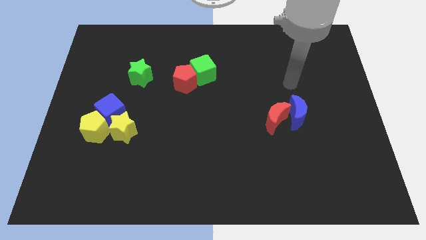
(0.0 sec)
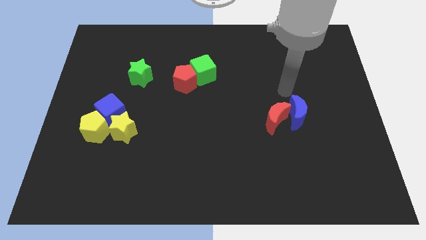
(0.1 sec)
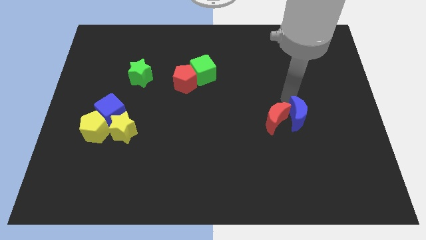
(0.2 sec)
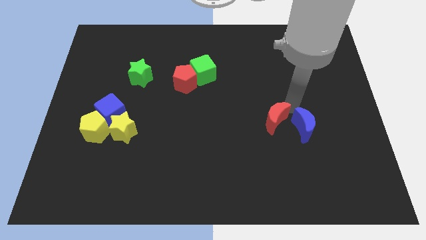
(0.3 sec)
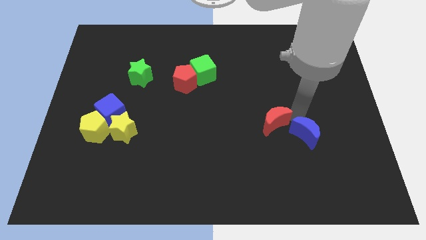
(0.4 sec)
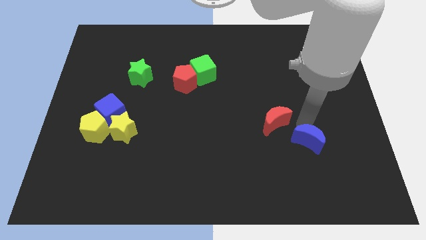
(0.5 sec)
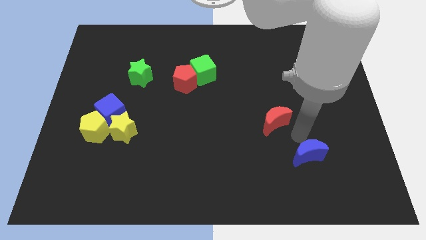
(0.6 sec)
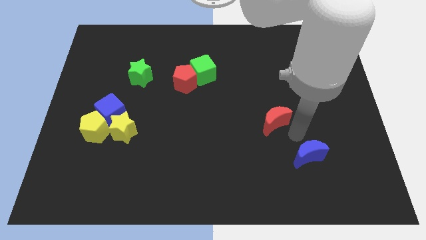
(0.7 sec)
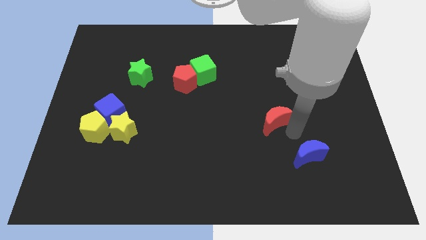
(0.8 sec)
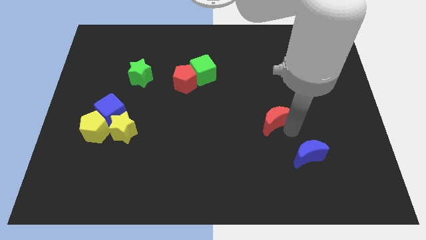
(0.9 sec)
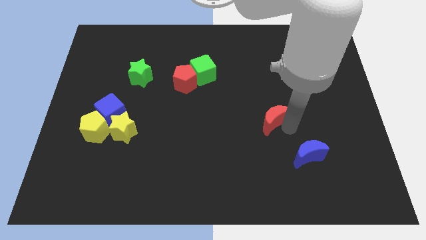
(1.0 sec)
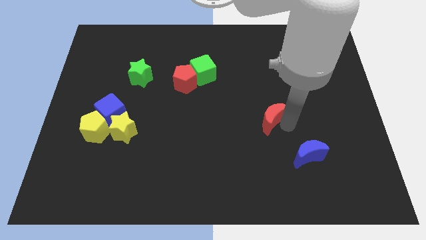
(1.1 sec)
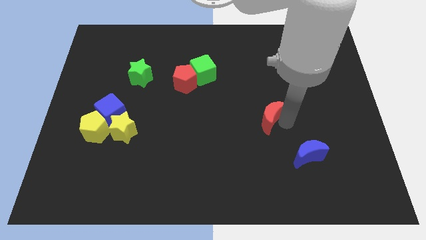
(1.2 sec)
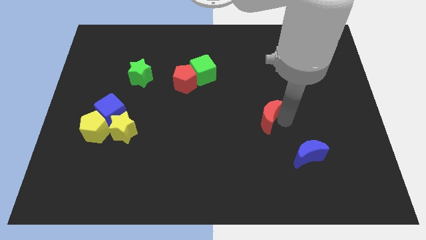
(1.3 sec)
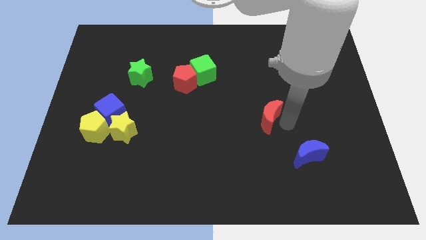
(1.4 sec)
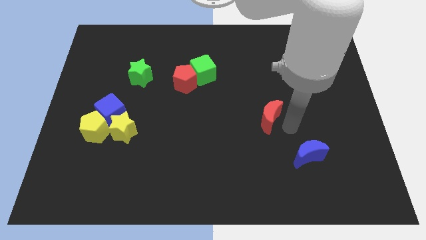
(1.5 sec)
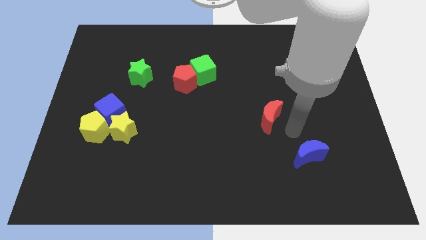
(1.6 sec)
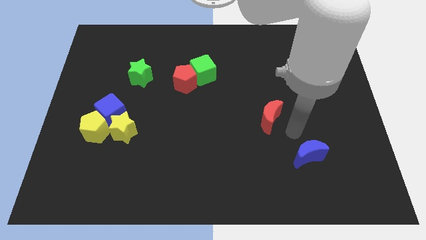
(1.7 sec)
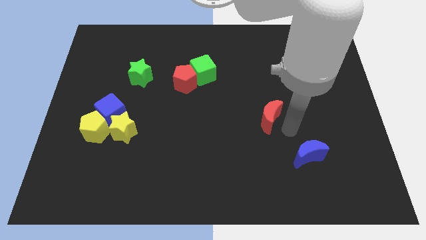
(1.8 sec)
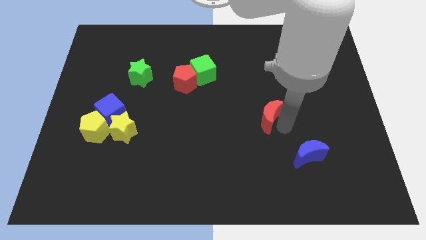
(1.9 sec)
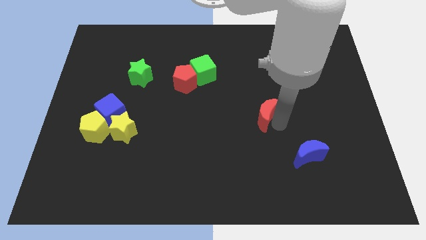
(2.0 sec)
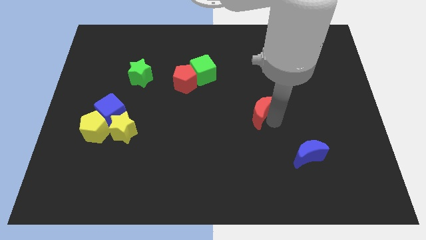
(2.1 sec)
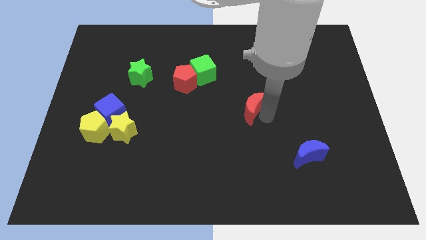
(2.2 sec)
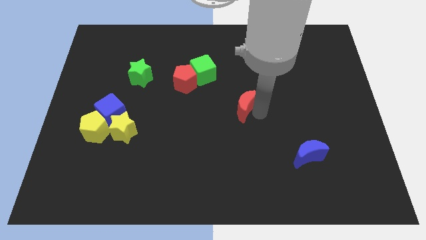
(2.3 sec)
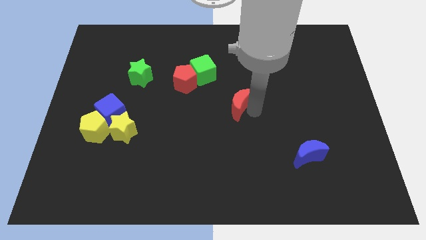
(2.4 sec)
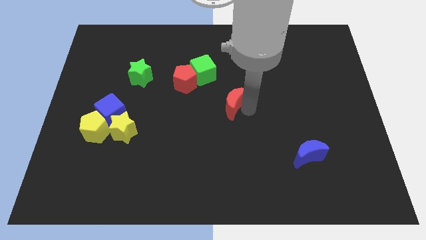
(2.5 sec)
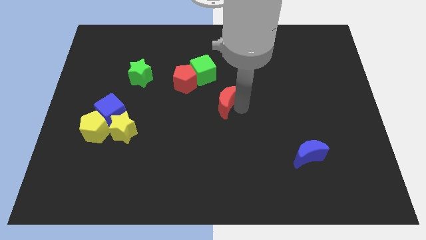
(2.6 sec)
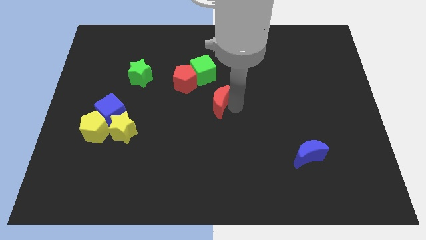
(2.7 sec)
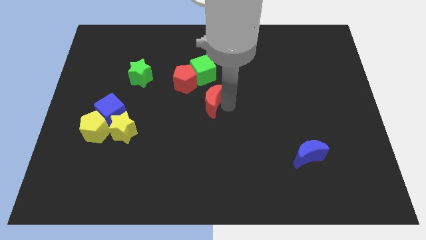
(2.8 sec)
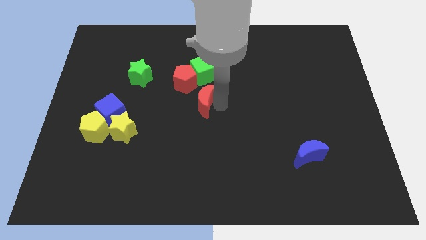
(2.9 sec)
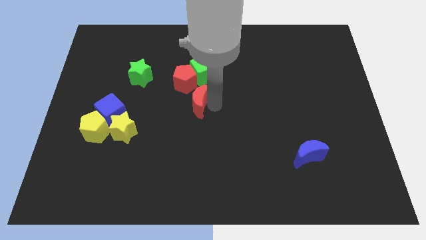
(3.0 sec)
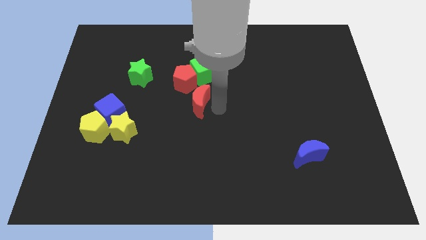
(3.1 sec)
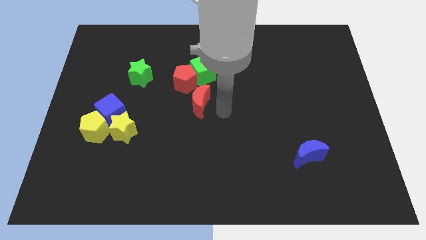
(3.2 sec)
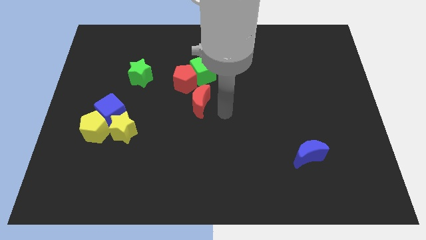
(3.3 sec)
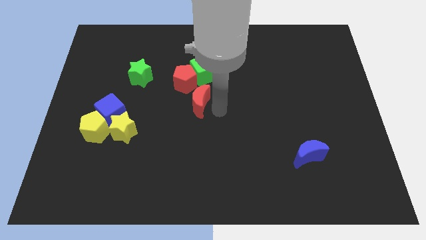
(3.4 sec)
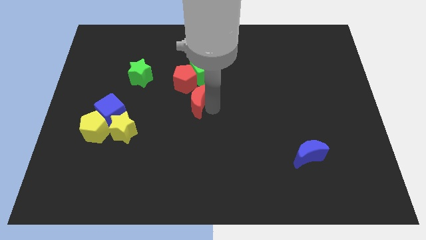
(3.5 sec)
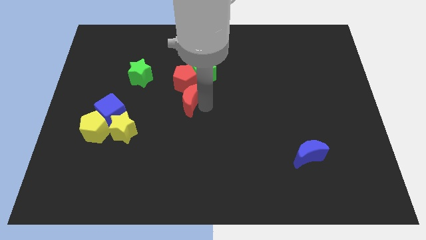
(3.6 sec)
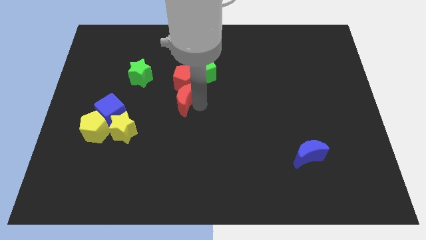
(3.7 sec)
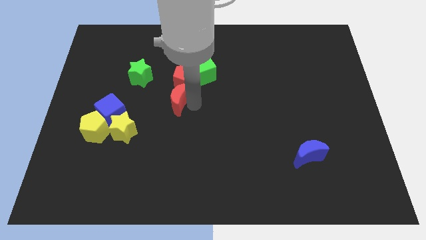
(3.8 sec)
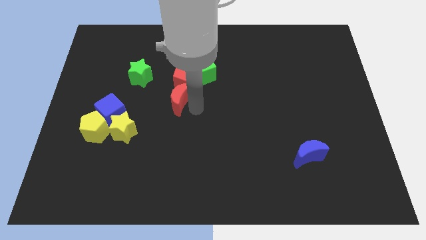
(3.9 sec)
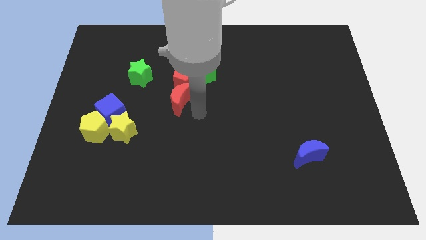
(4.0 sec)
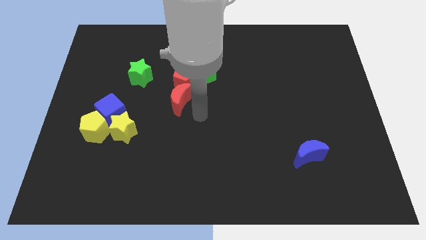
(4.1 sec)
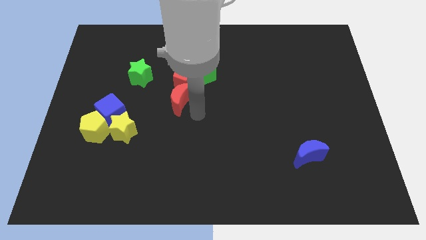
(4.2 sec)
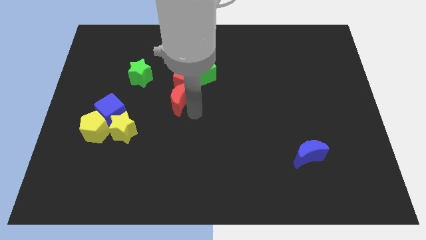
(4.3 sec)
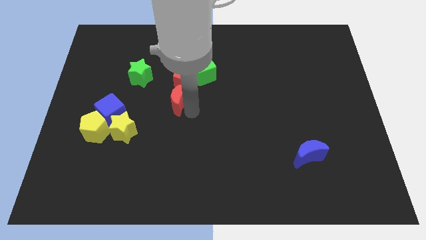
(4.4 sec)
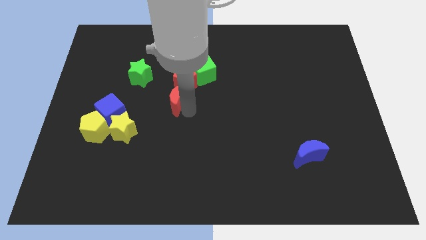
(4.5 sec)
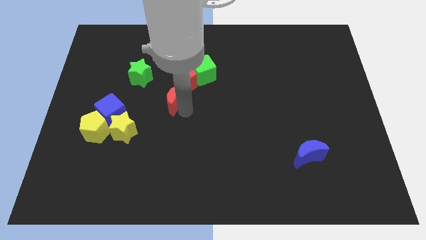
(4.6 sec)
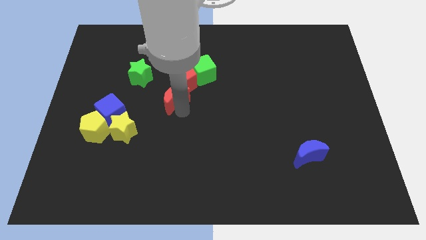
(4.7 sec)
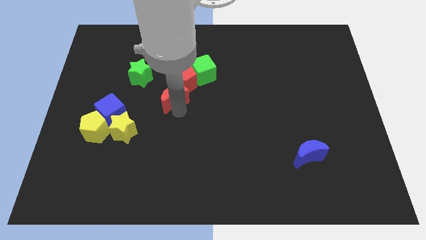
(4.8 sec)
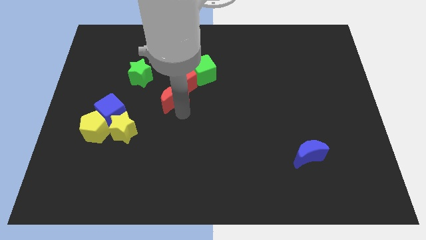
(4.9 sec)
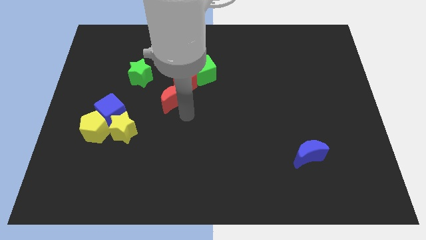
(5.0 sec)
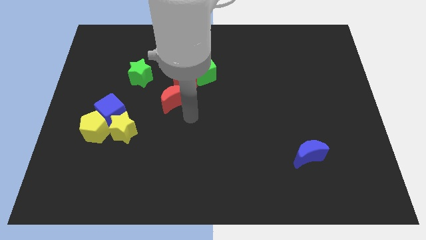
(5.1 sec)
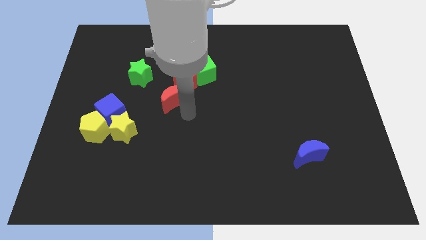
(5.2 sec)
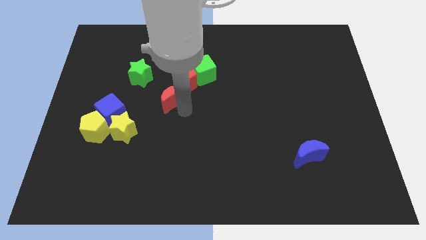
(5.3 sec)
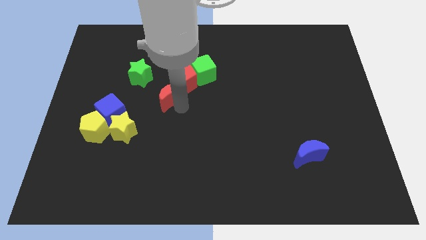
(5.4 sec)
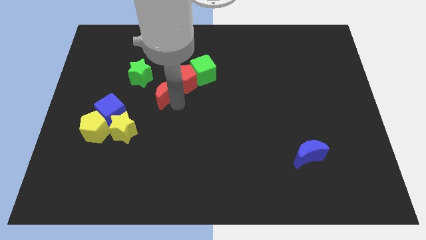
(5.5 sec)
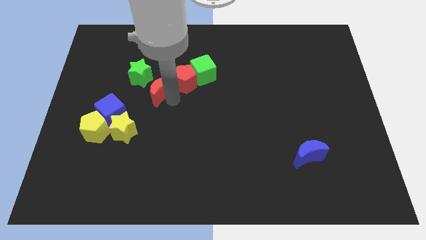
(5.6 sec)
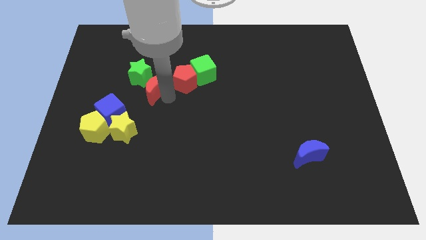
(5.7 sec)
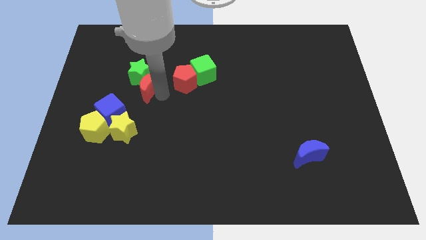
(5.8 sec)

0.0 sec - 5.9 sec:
move the red moon close to the green star

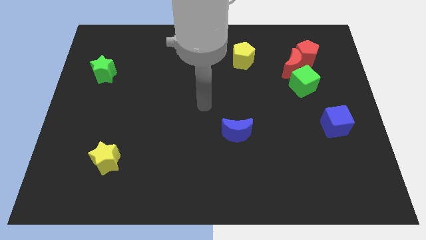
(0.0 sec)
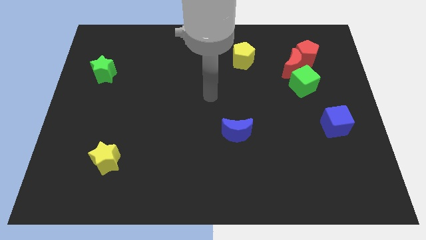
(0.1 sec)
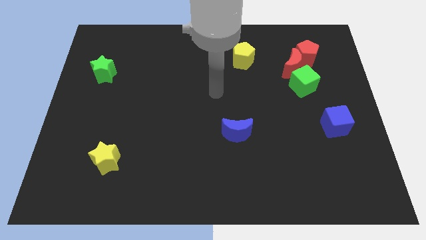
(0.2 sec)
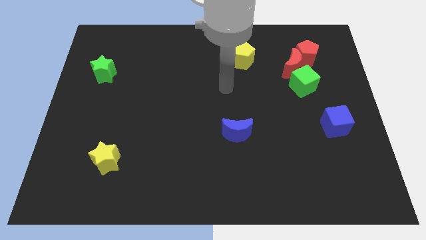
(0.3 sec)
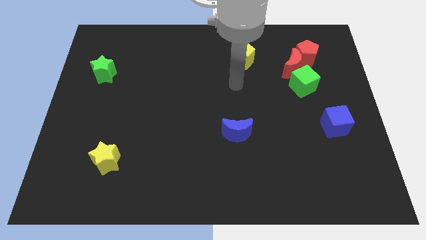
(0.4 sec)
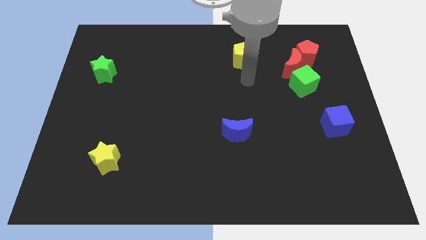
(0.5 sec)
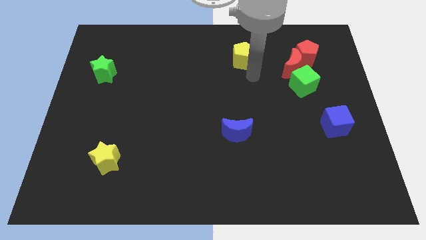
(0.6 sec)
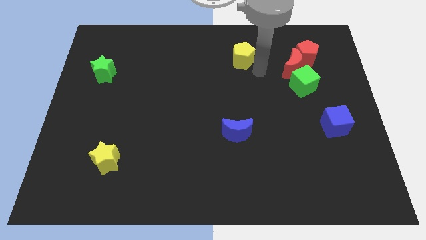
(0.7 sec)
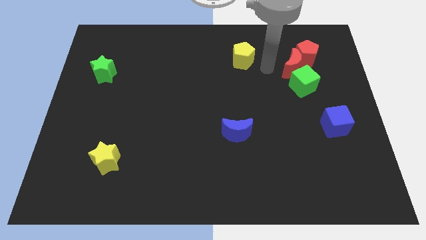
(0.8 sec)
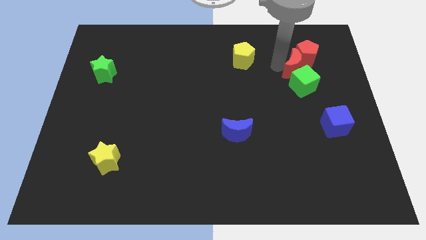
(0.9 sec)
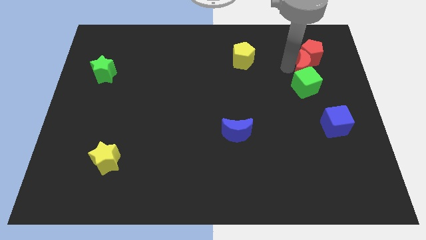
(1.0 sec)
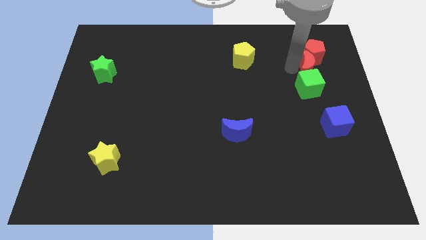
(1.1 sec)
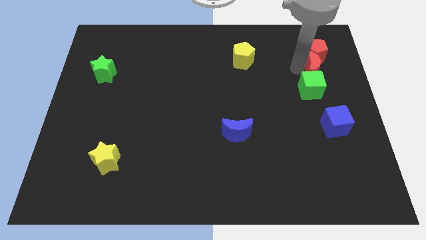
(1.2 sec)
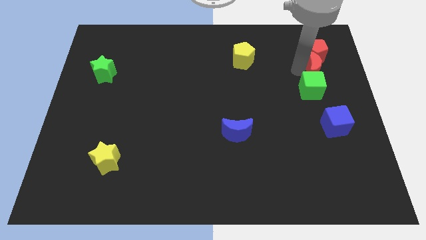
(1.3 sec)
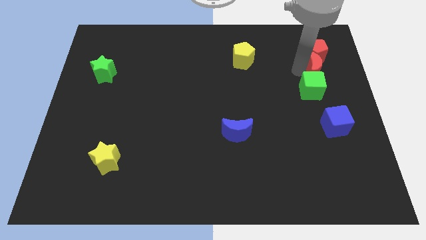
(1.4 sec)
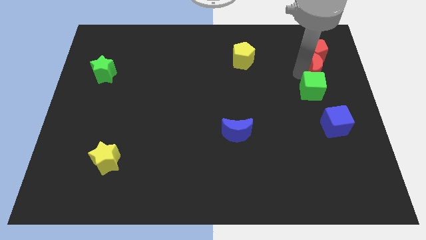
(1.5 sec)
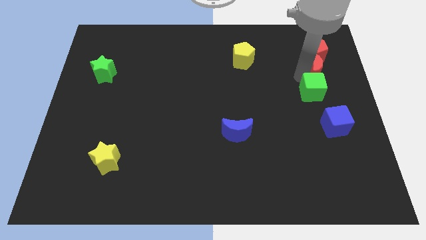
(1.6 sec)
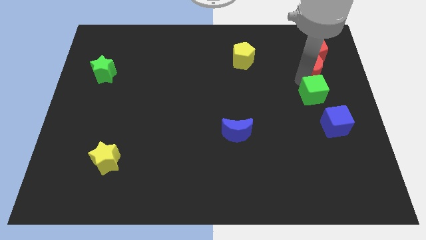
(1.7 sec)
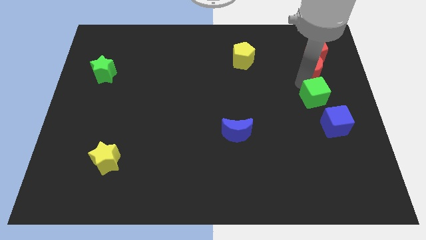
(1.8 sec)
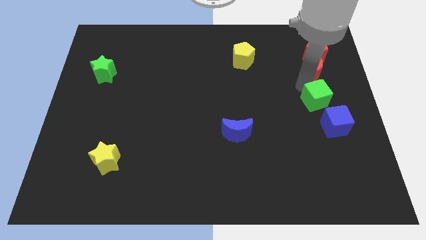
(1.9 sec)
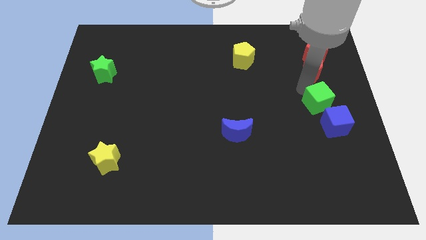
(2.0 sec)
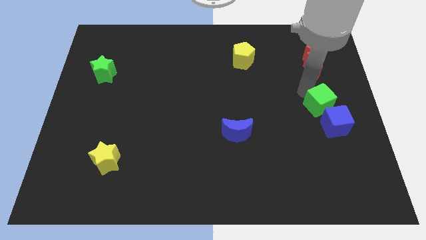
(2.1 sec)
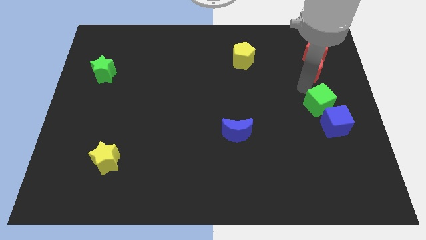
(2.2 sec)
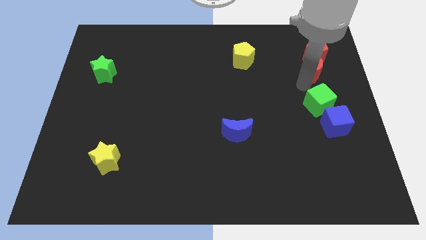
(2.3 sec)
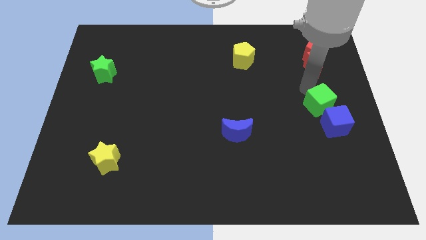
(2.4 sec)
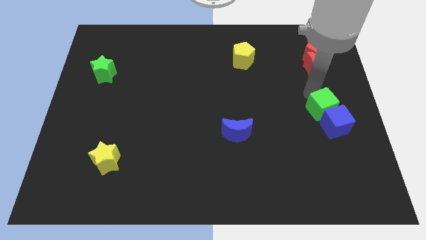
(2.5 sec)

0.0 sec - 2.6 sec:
slide the green cube towards the blue cube
